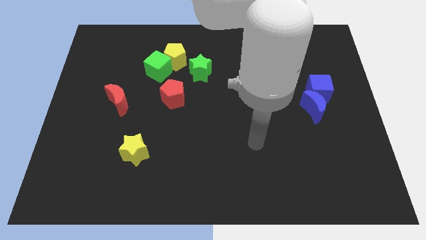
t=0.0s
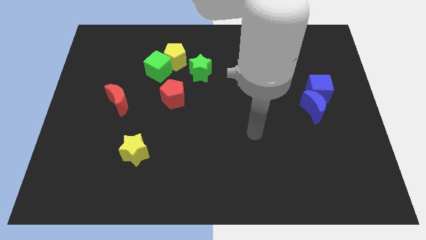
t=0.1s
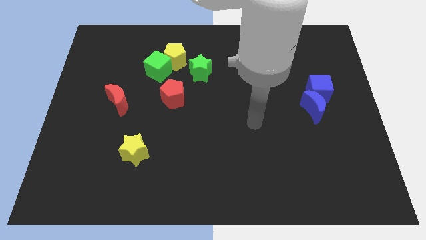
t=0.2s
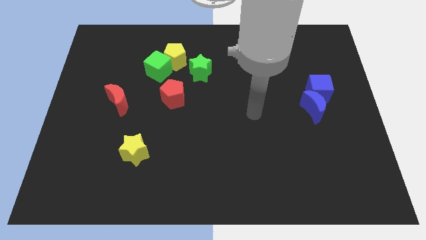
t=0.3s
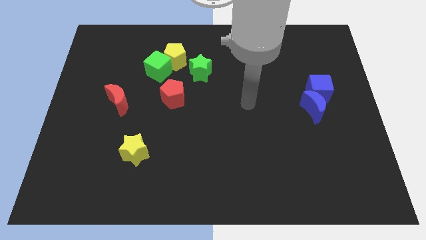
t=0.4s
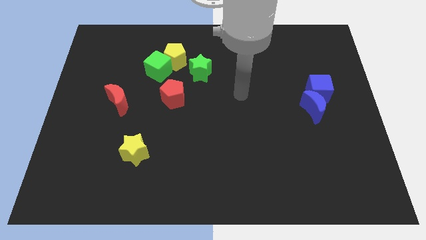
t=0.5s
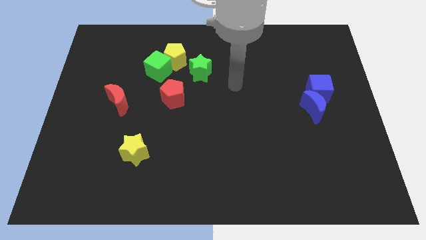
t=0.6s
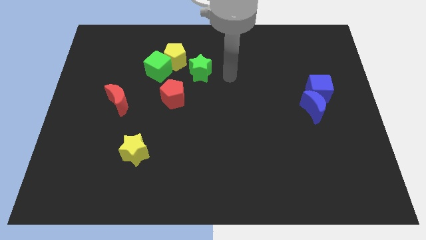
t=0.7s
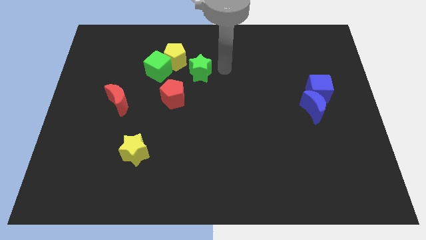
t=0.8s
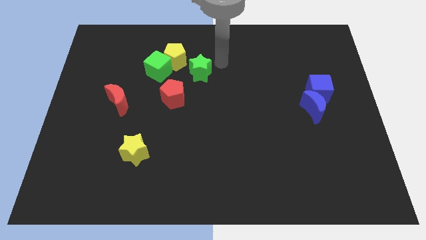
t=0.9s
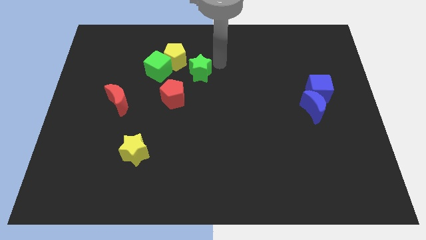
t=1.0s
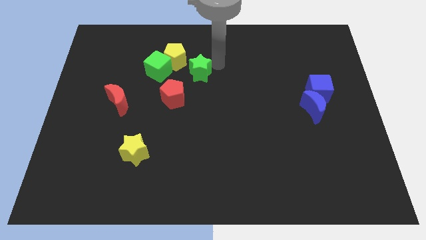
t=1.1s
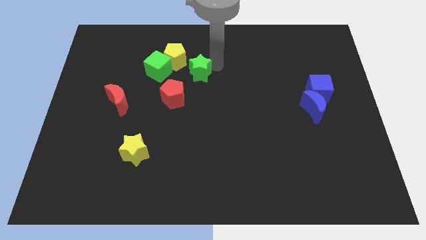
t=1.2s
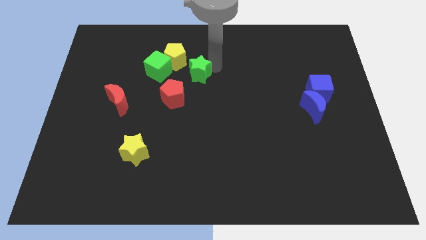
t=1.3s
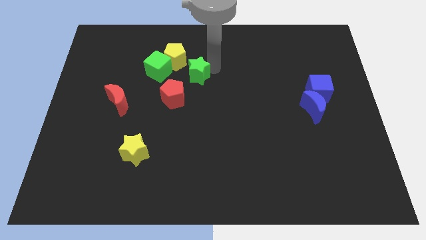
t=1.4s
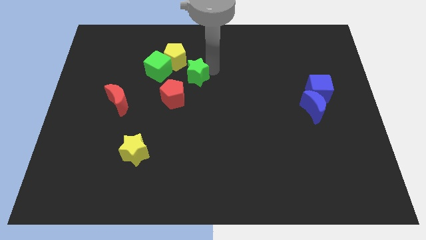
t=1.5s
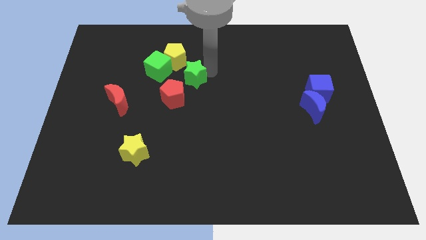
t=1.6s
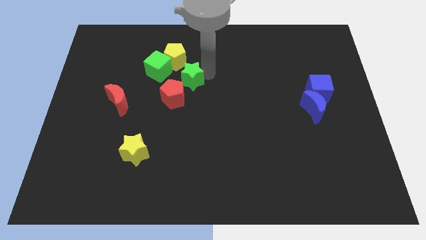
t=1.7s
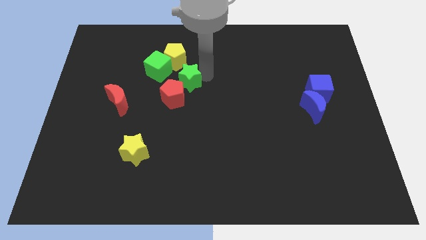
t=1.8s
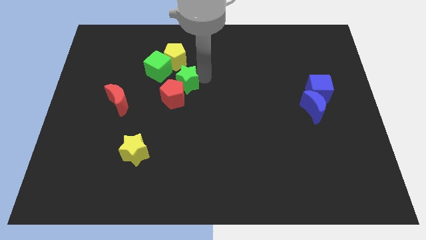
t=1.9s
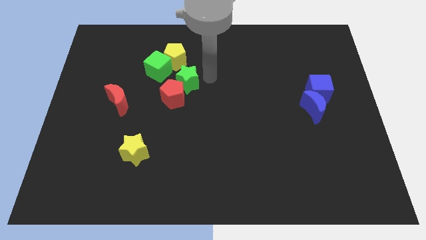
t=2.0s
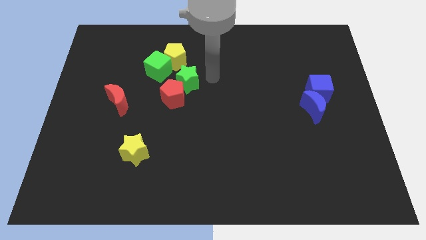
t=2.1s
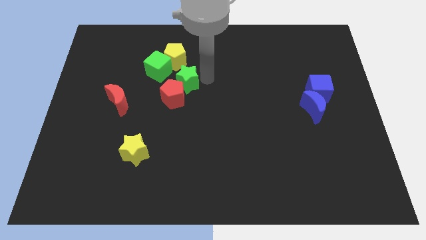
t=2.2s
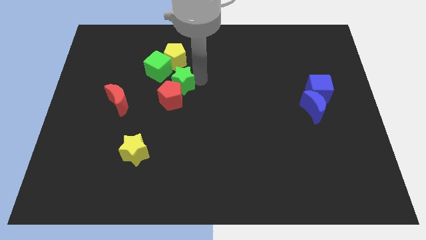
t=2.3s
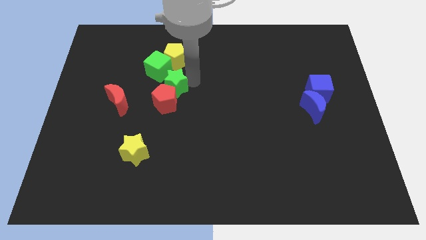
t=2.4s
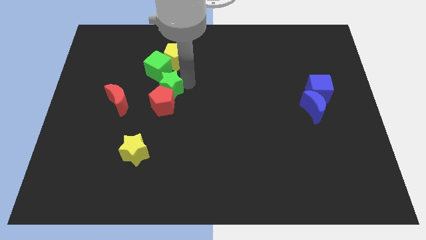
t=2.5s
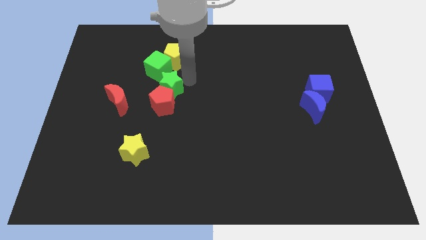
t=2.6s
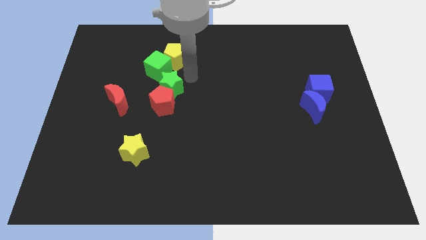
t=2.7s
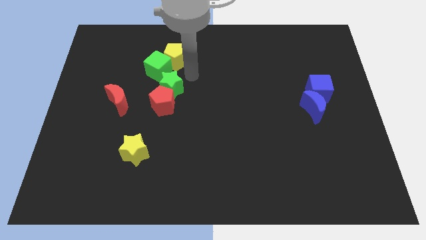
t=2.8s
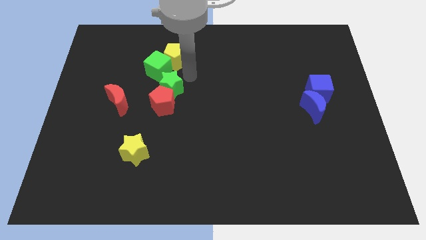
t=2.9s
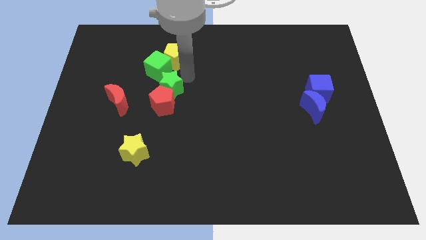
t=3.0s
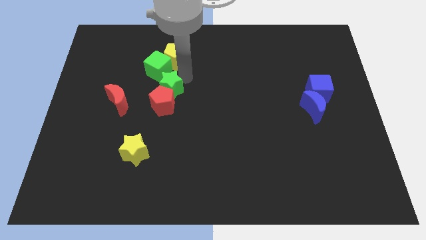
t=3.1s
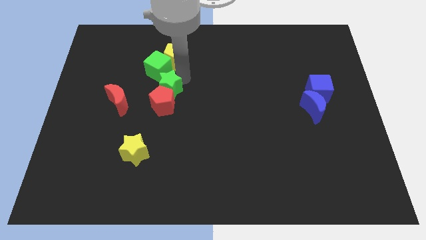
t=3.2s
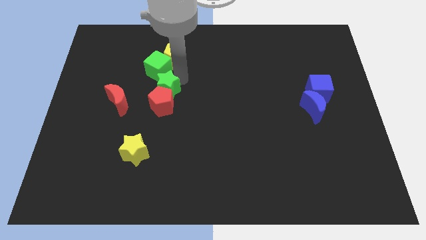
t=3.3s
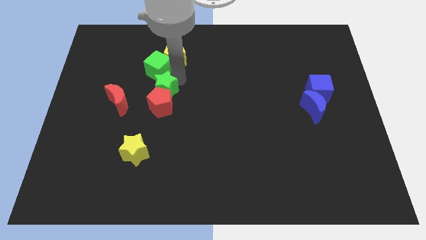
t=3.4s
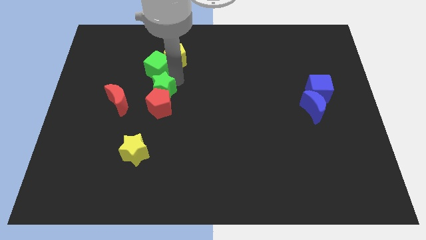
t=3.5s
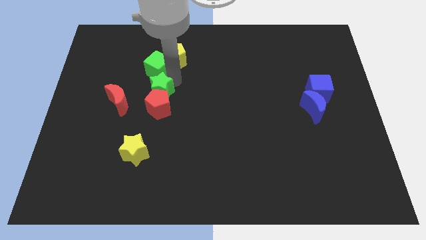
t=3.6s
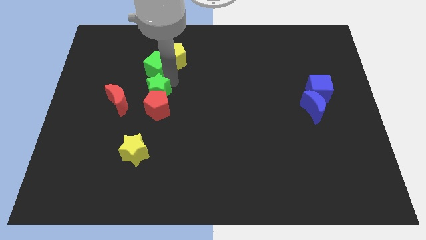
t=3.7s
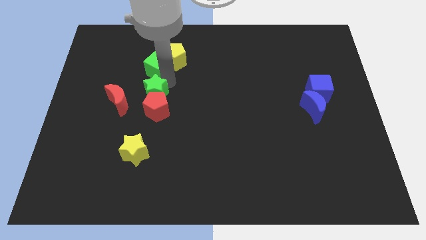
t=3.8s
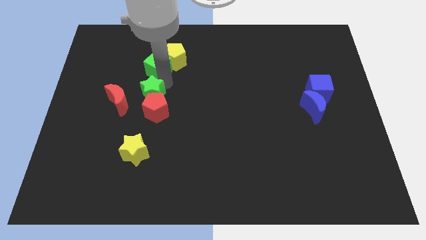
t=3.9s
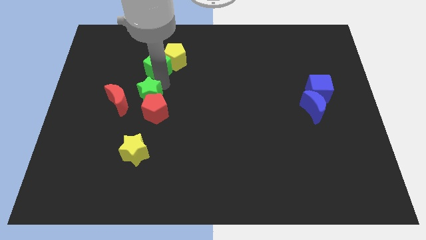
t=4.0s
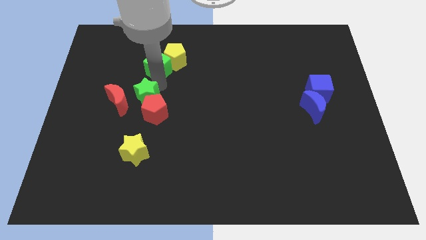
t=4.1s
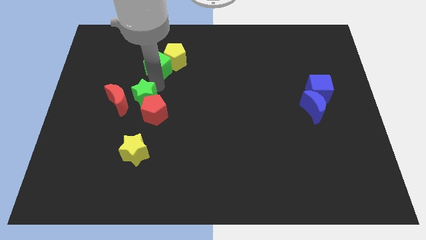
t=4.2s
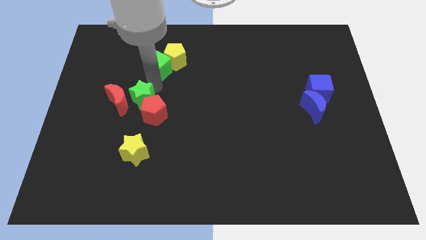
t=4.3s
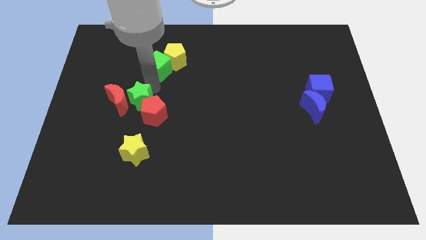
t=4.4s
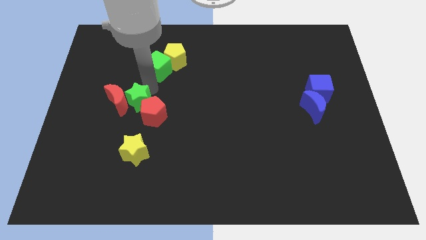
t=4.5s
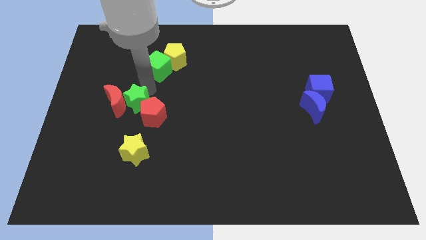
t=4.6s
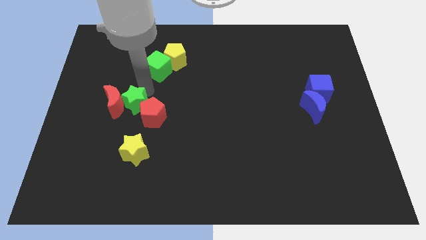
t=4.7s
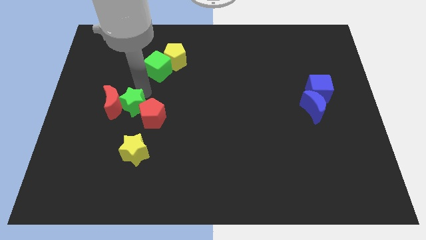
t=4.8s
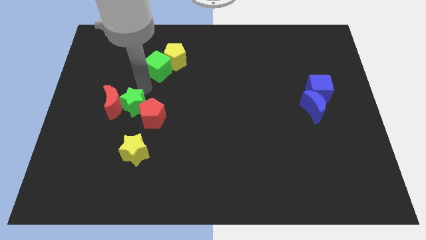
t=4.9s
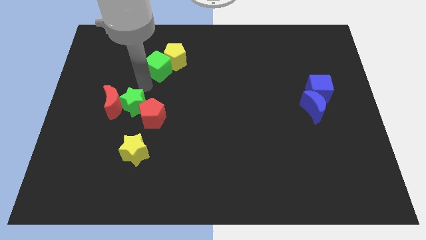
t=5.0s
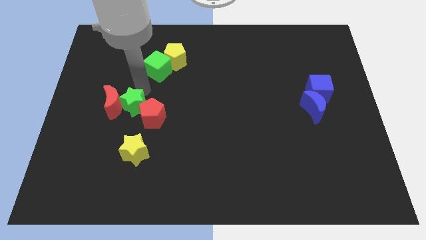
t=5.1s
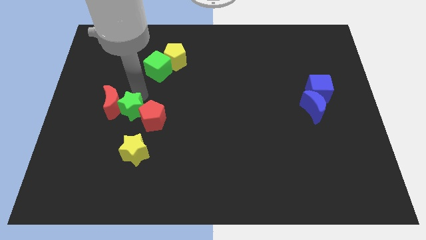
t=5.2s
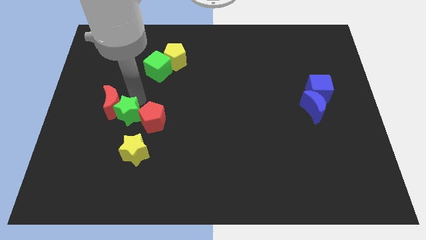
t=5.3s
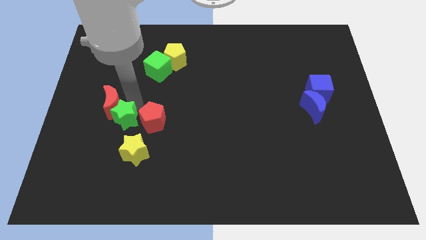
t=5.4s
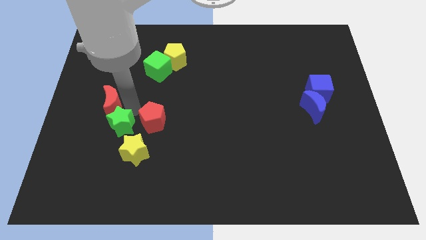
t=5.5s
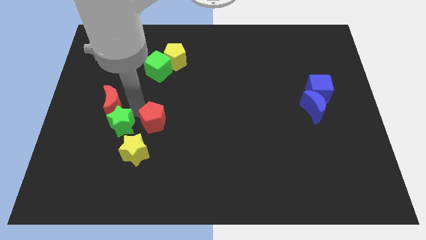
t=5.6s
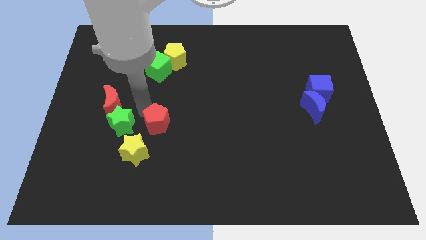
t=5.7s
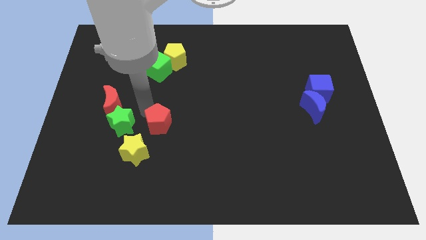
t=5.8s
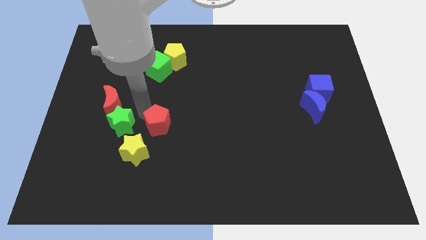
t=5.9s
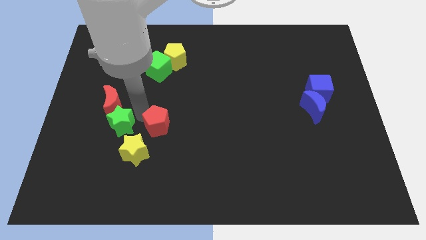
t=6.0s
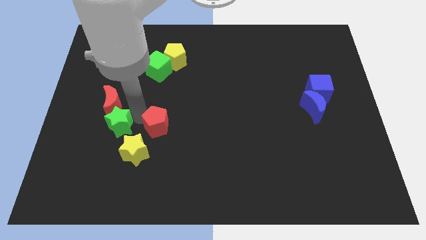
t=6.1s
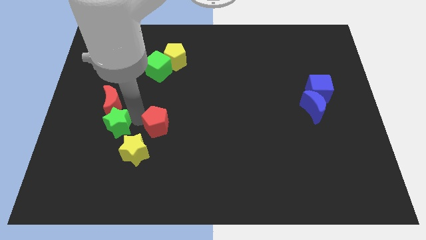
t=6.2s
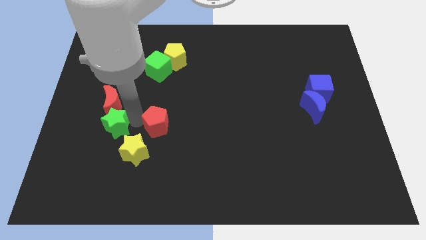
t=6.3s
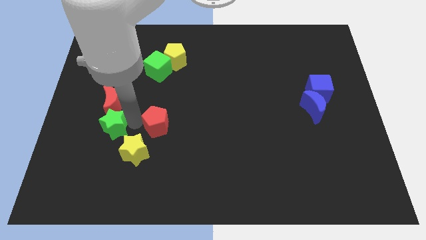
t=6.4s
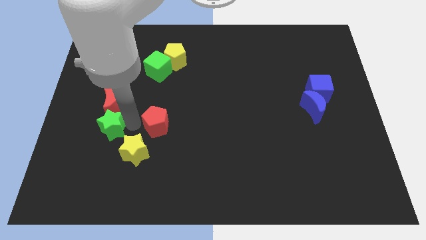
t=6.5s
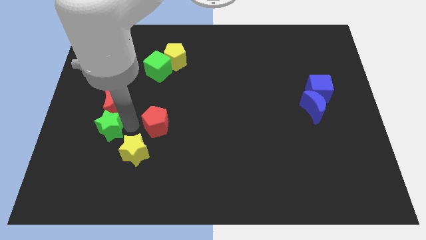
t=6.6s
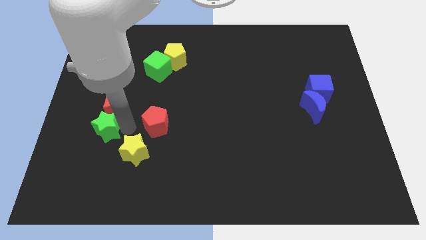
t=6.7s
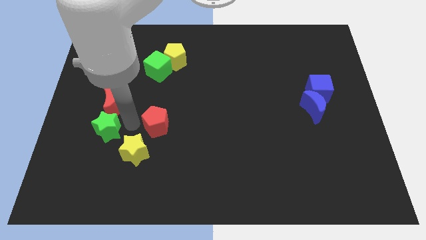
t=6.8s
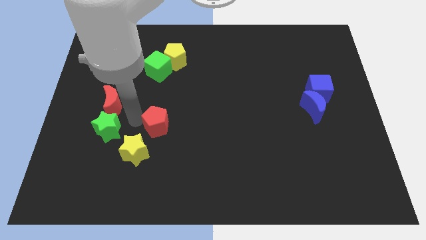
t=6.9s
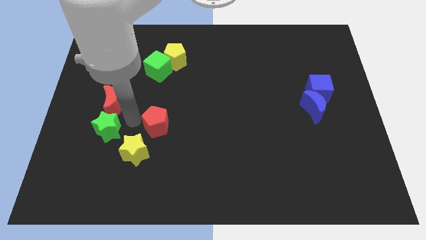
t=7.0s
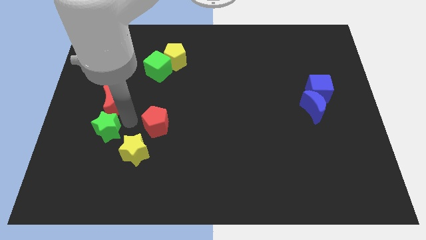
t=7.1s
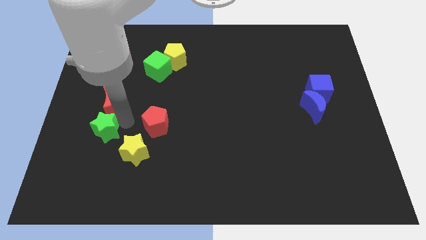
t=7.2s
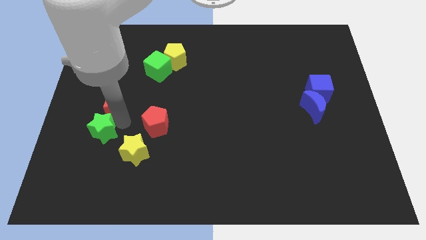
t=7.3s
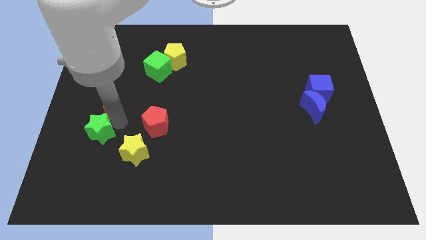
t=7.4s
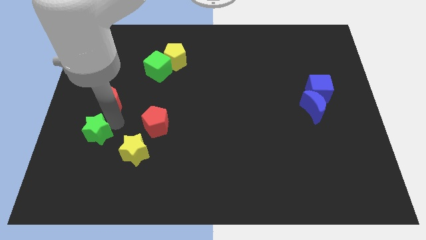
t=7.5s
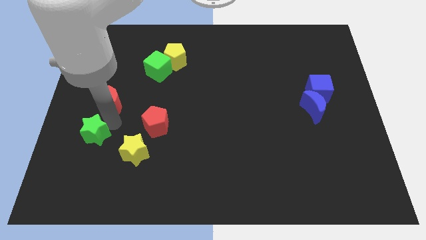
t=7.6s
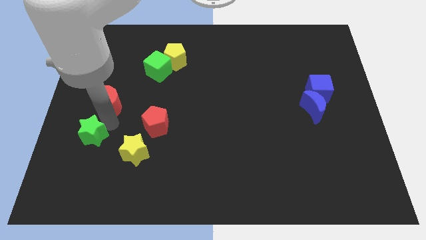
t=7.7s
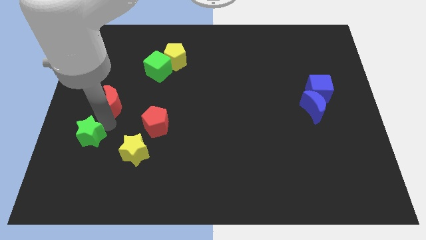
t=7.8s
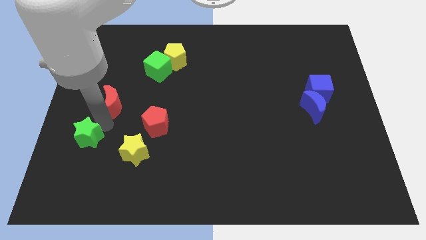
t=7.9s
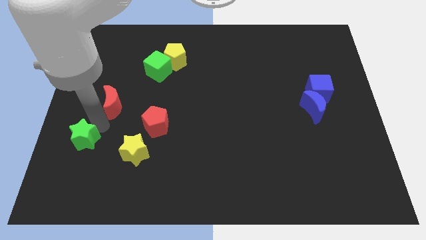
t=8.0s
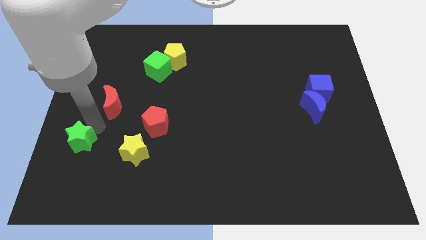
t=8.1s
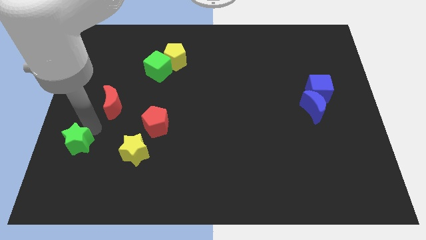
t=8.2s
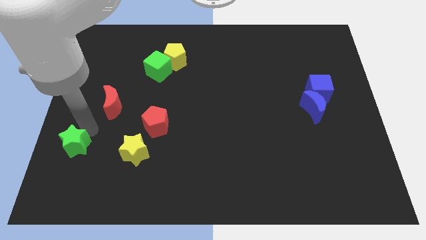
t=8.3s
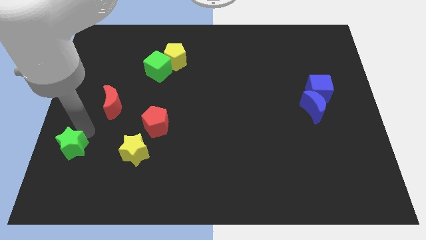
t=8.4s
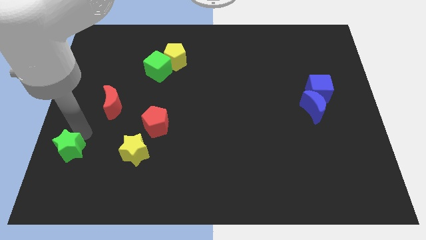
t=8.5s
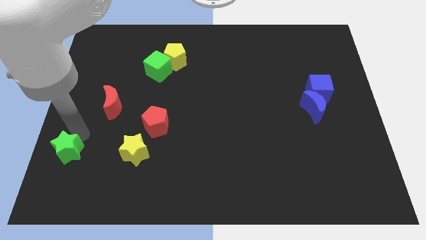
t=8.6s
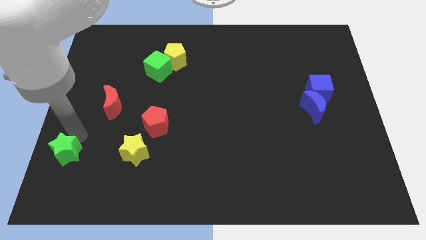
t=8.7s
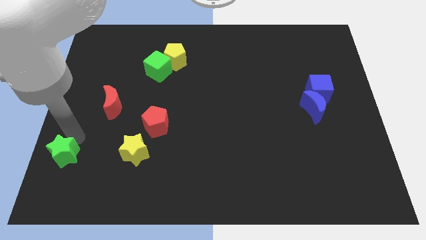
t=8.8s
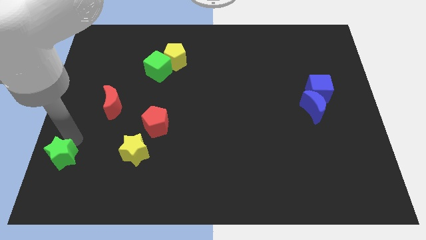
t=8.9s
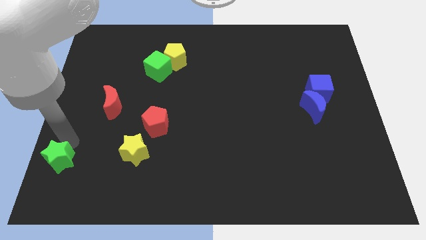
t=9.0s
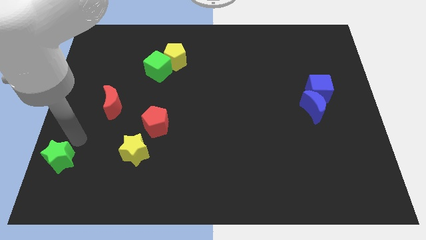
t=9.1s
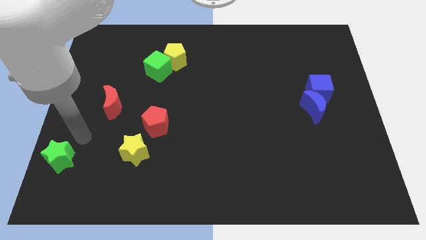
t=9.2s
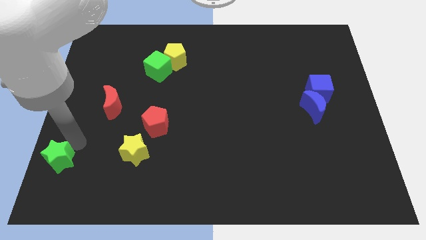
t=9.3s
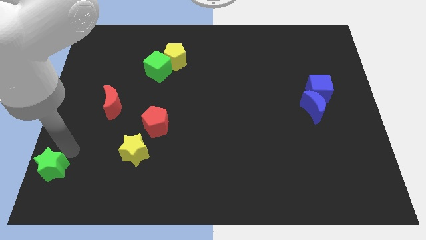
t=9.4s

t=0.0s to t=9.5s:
move the green star to the lower left corner
